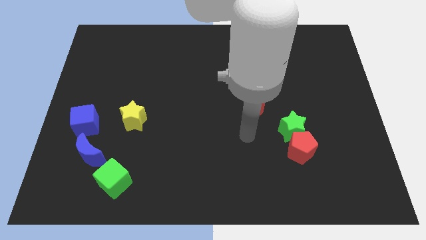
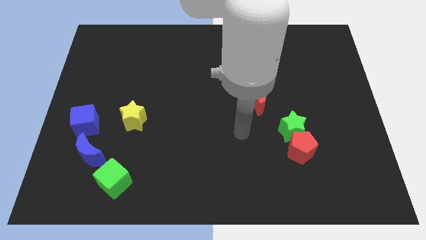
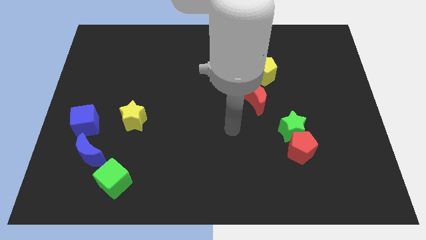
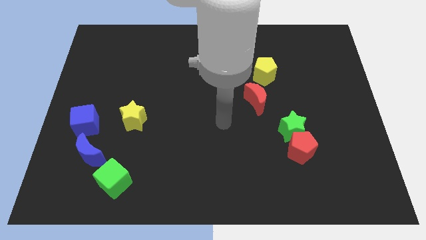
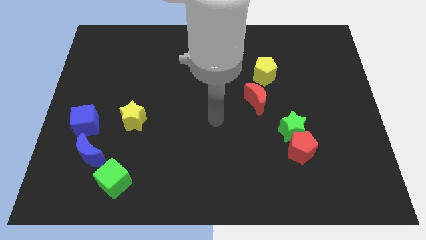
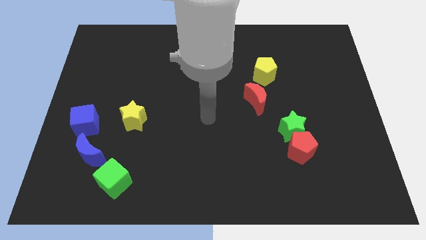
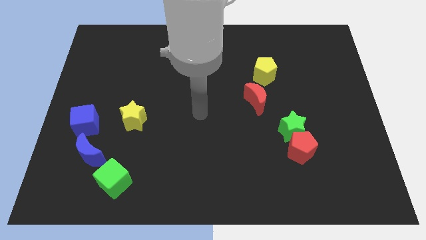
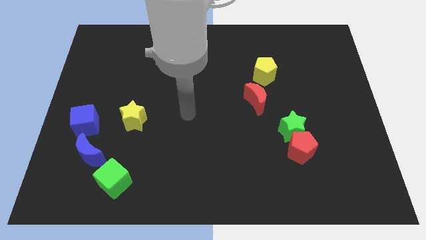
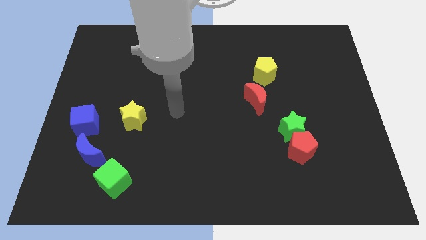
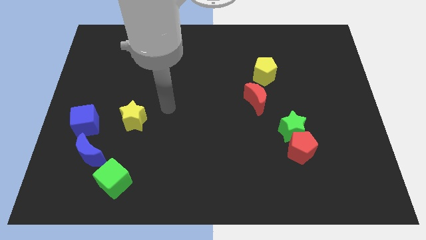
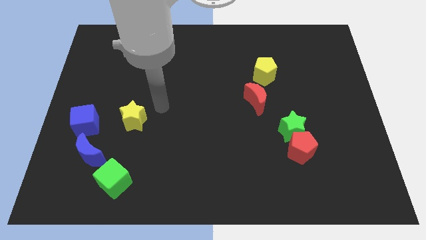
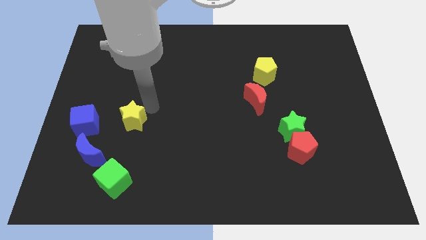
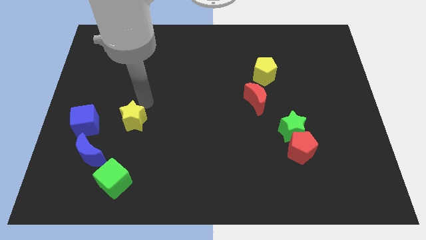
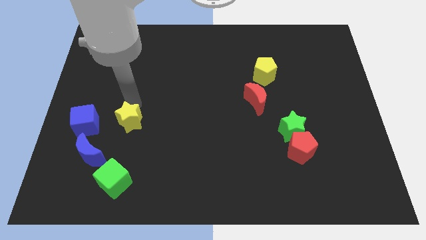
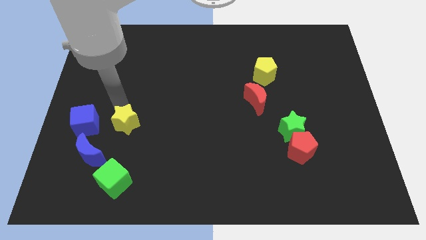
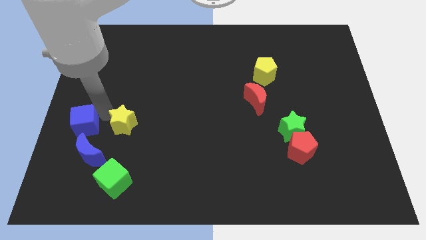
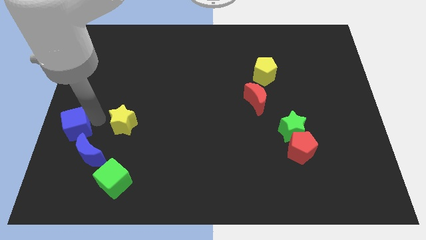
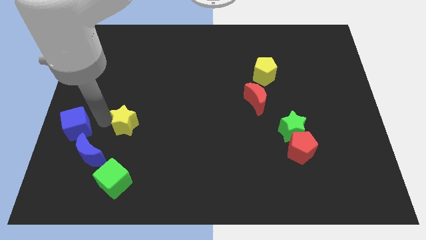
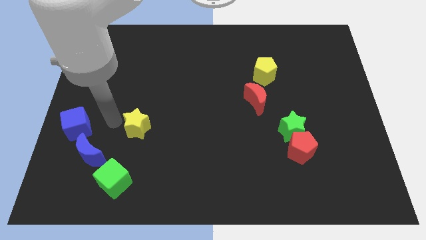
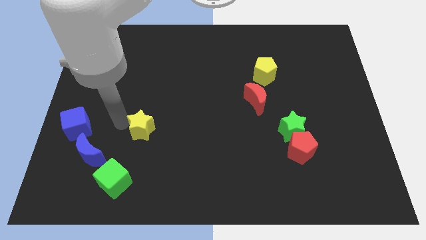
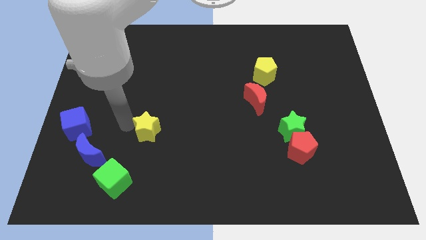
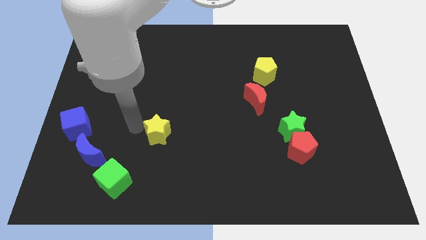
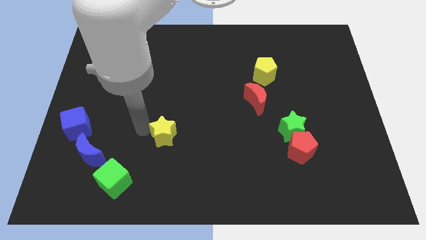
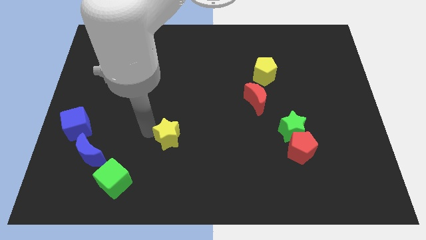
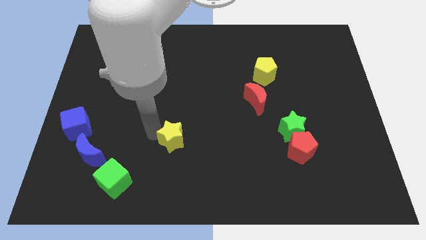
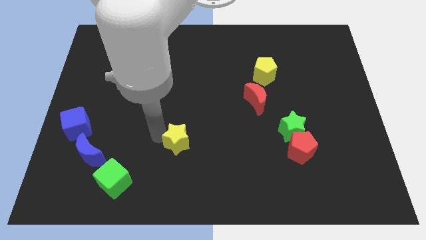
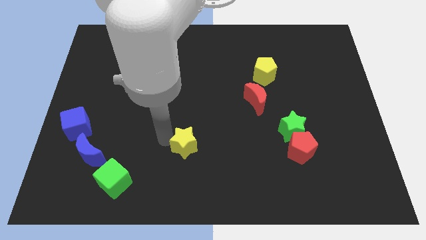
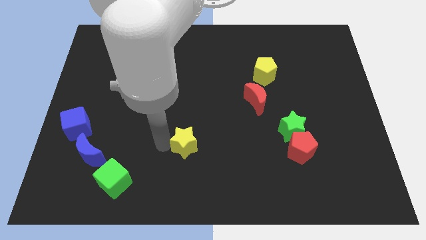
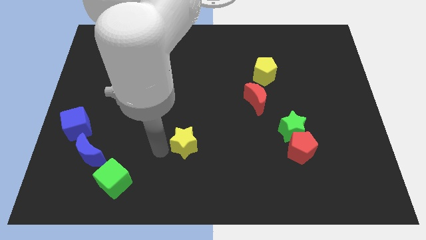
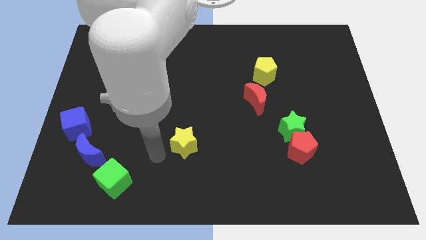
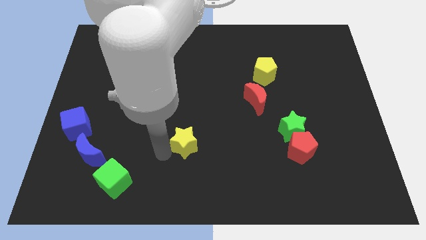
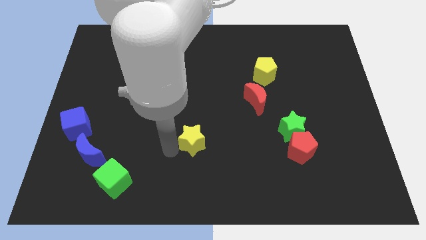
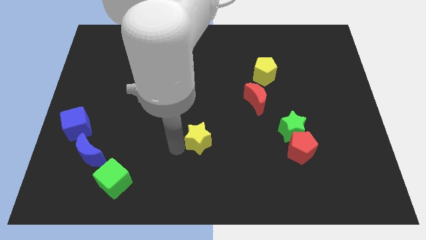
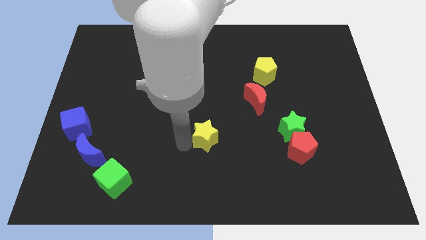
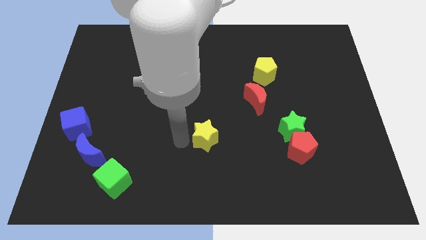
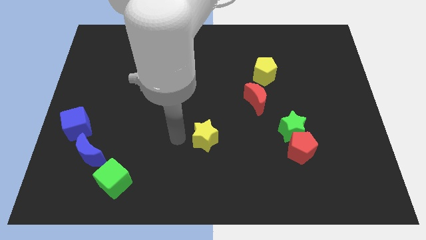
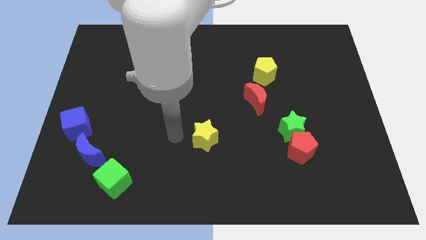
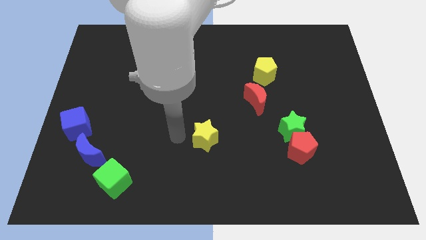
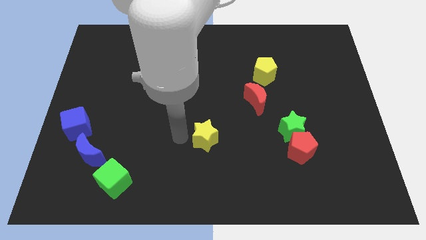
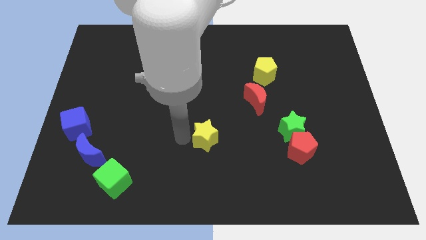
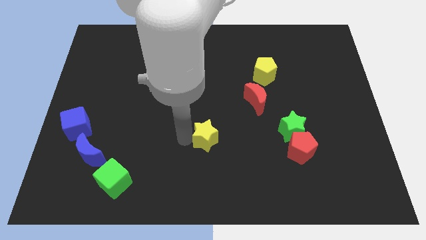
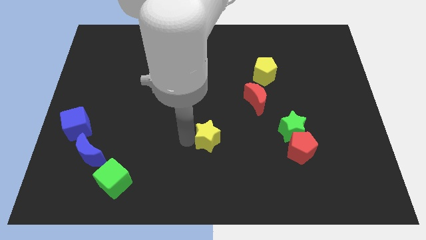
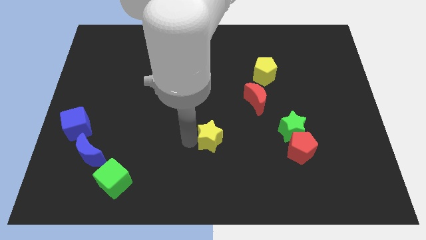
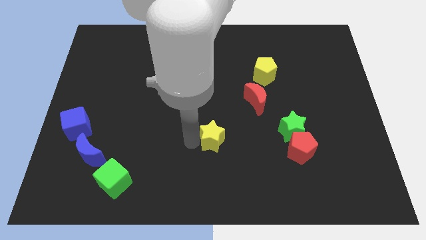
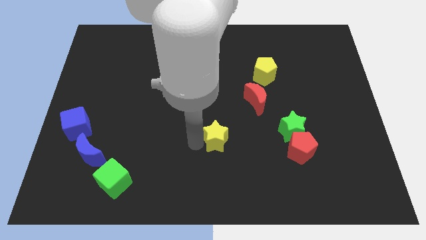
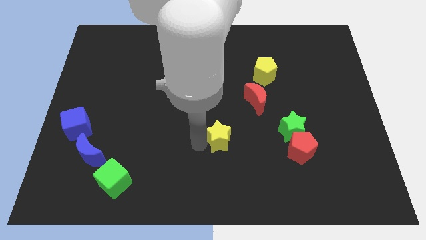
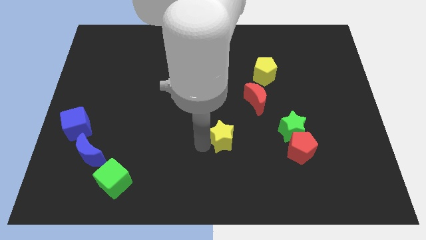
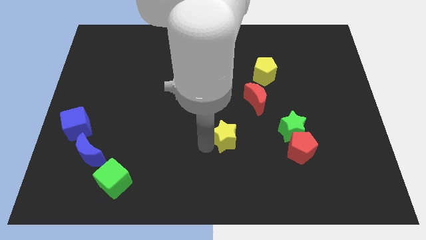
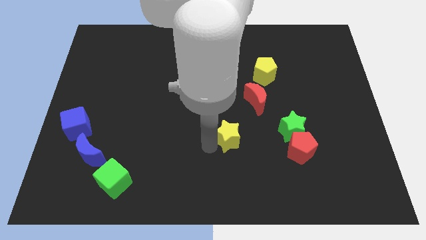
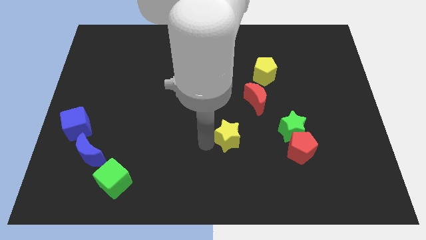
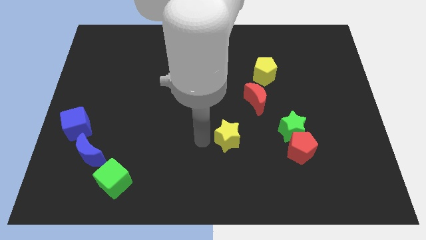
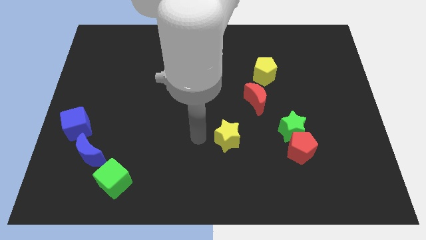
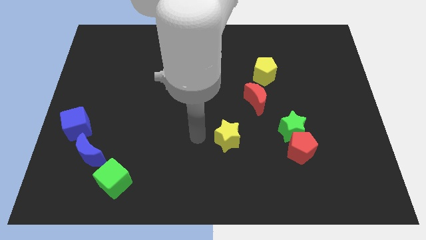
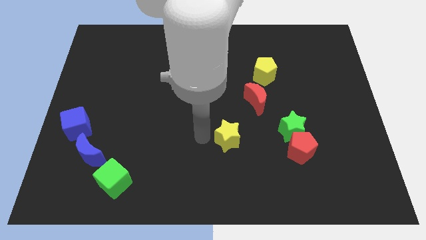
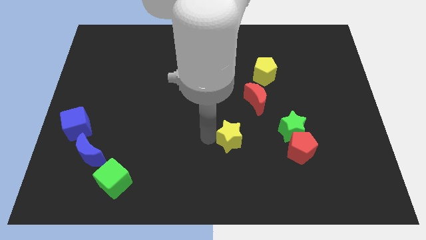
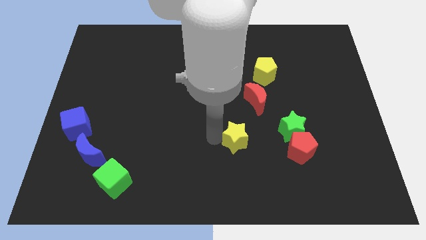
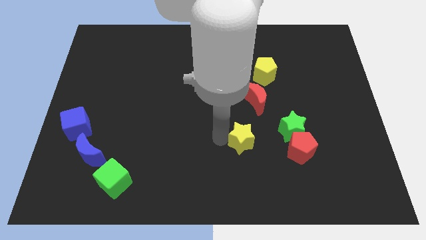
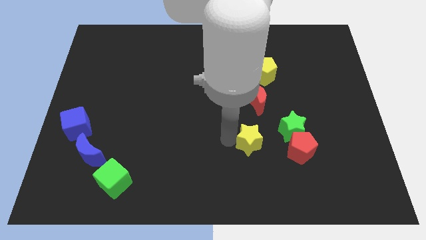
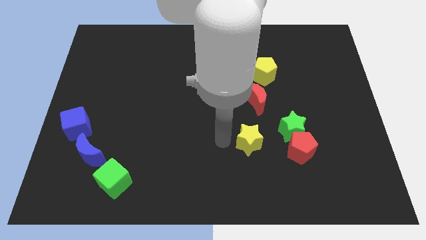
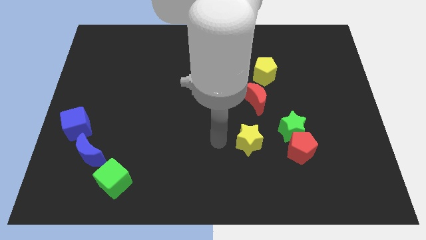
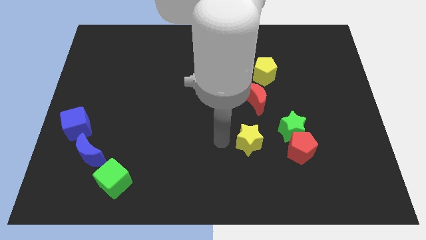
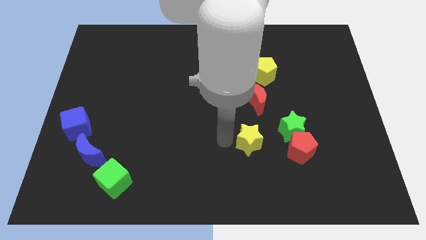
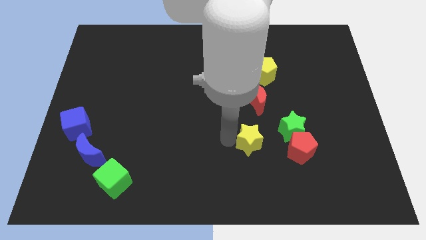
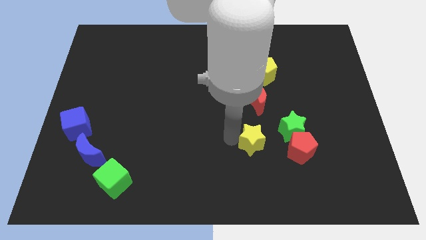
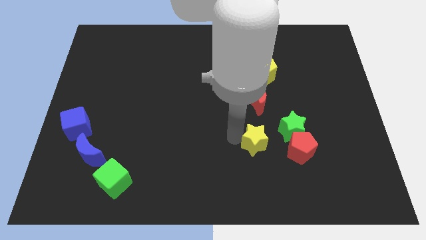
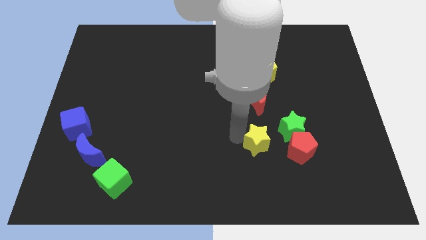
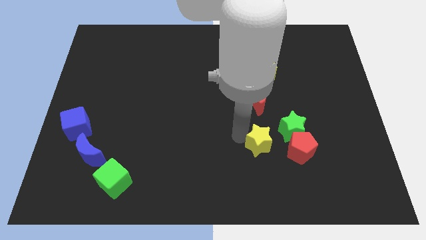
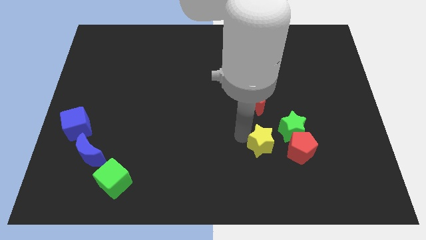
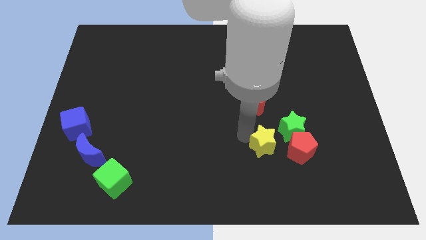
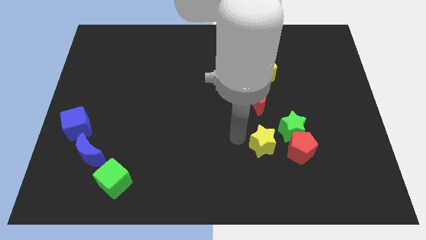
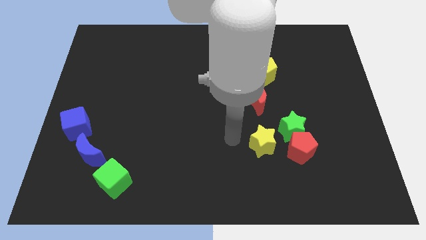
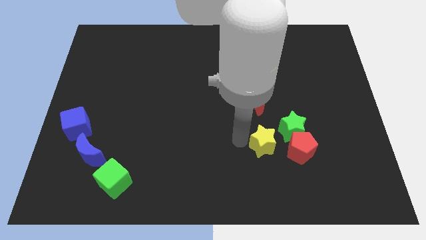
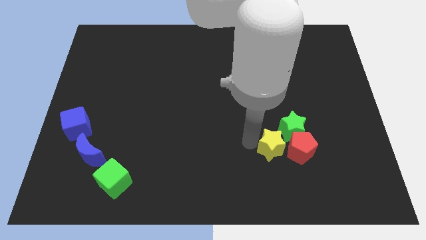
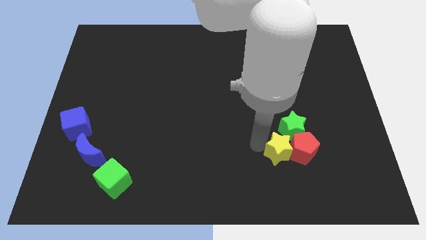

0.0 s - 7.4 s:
put the yellow star close to the red pentagon
